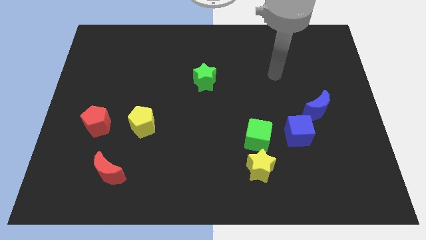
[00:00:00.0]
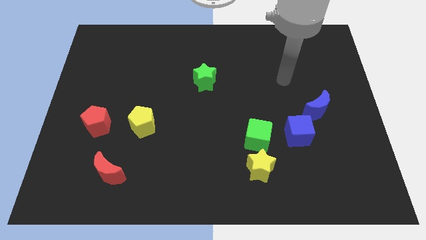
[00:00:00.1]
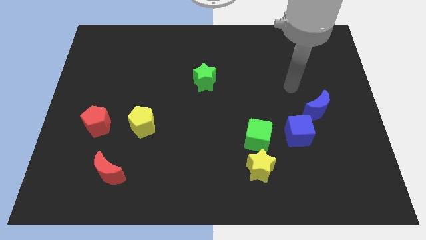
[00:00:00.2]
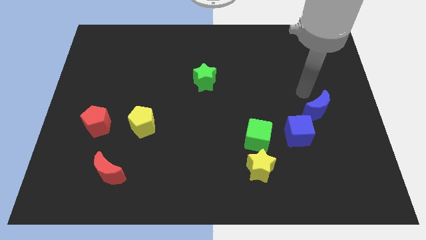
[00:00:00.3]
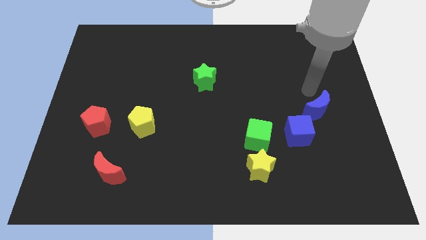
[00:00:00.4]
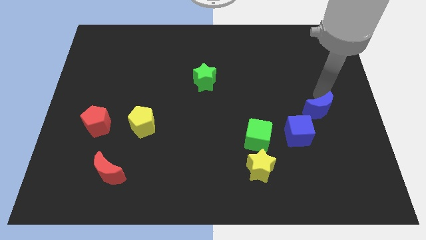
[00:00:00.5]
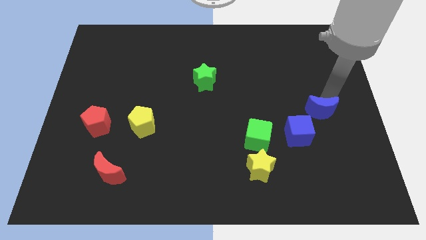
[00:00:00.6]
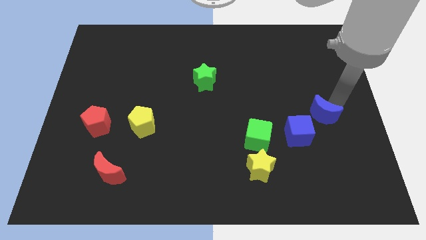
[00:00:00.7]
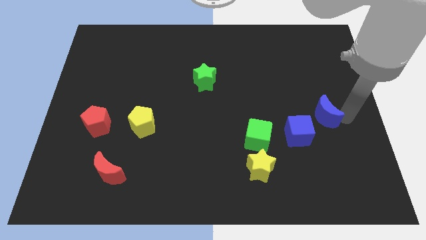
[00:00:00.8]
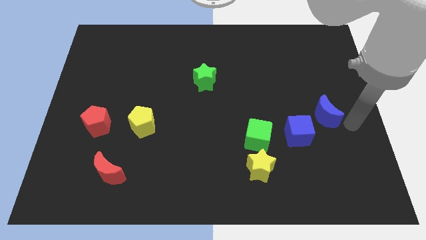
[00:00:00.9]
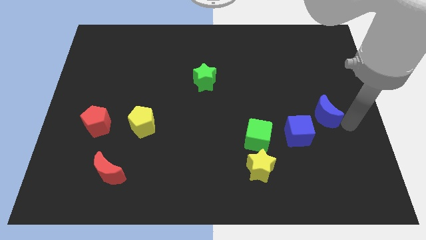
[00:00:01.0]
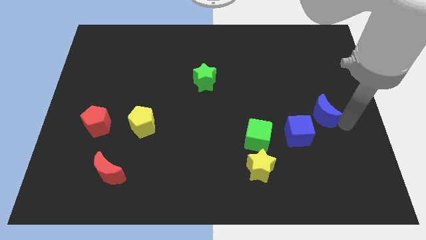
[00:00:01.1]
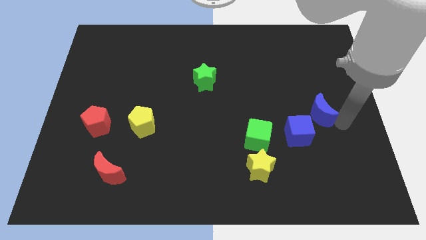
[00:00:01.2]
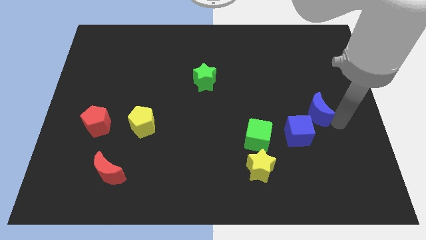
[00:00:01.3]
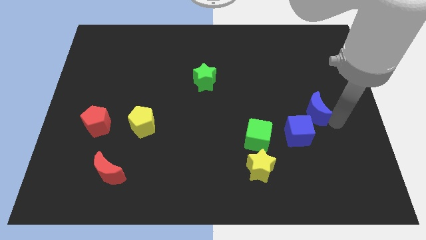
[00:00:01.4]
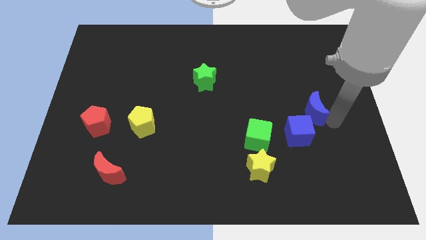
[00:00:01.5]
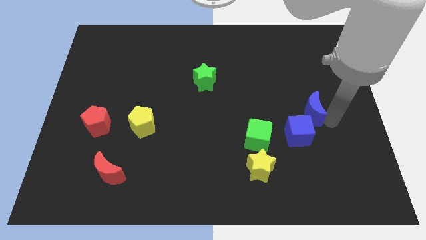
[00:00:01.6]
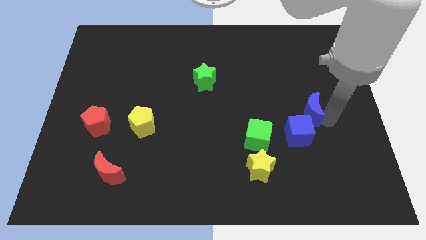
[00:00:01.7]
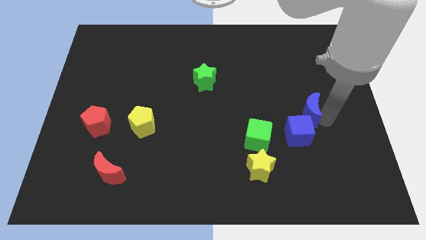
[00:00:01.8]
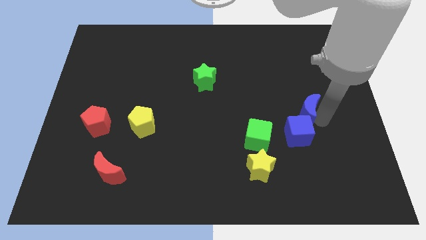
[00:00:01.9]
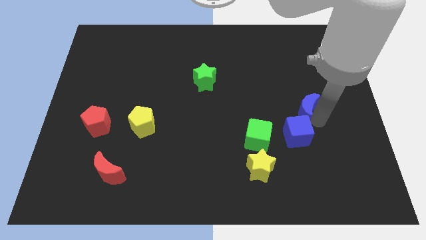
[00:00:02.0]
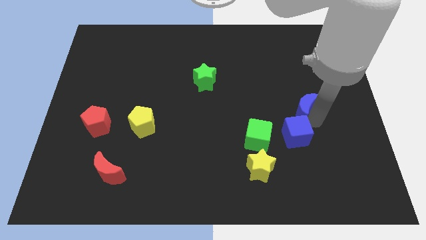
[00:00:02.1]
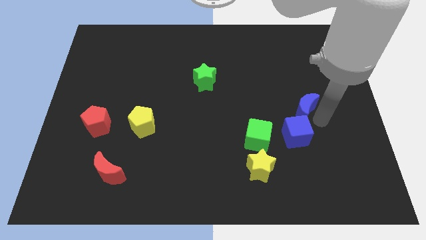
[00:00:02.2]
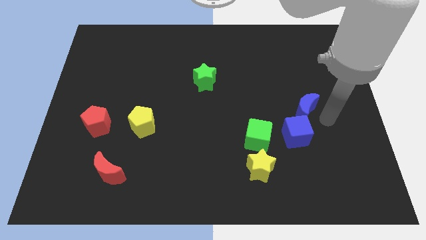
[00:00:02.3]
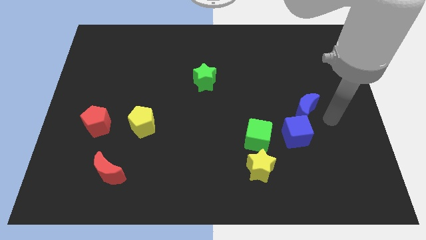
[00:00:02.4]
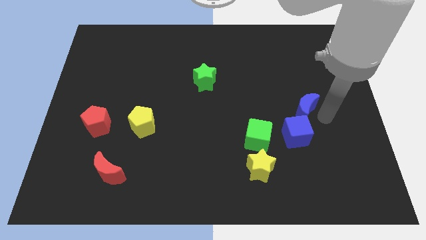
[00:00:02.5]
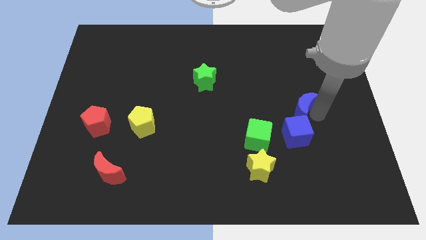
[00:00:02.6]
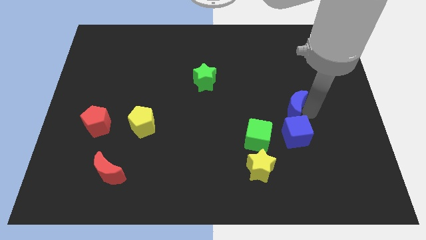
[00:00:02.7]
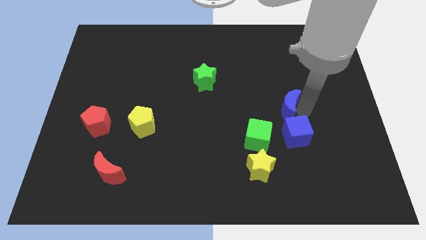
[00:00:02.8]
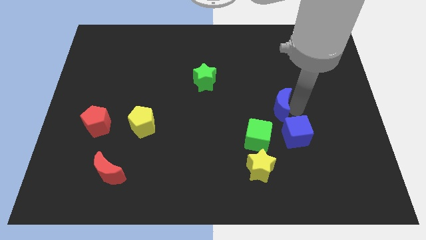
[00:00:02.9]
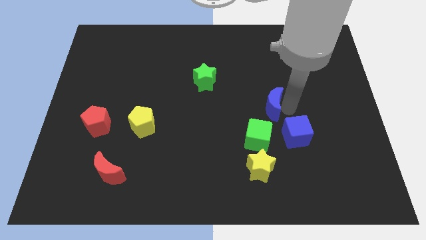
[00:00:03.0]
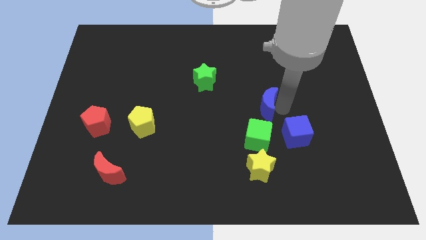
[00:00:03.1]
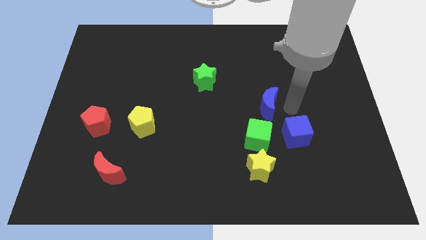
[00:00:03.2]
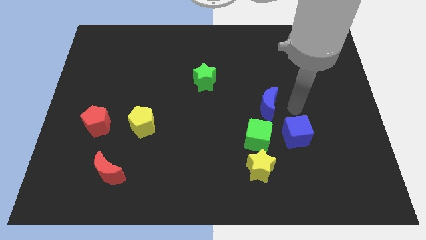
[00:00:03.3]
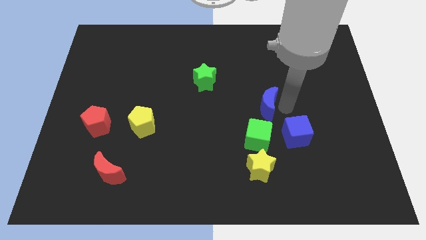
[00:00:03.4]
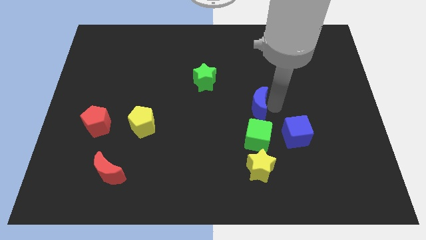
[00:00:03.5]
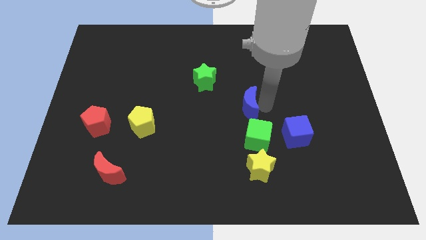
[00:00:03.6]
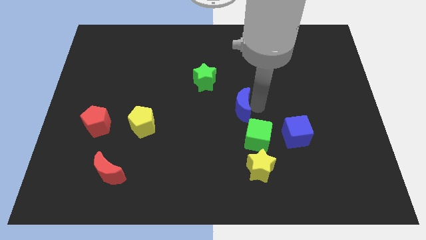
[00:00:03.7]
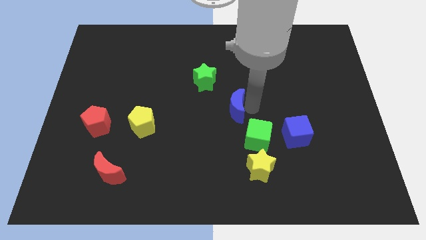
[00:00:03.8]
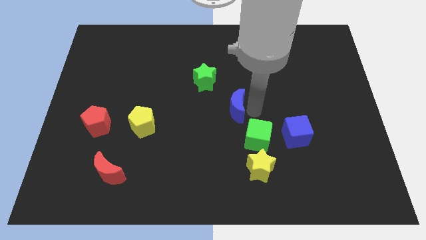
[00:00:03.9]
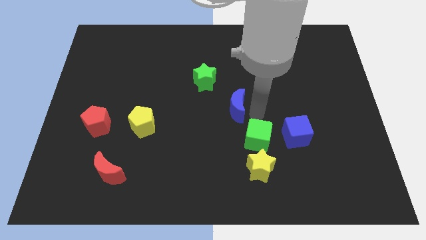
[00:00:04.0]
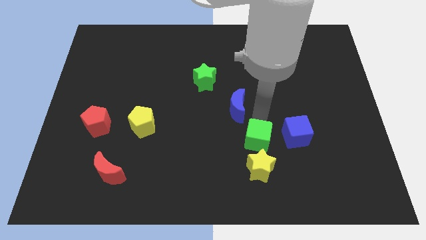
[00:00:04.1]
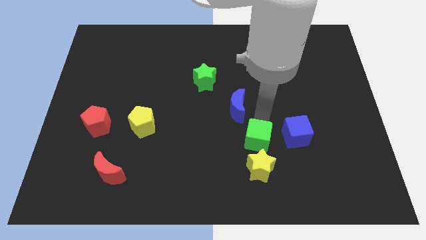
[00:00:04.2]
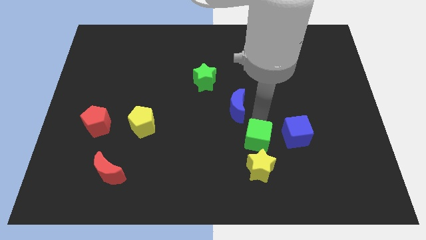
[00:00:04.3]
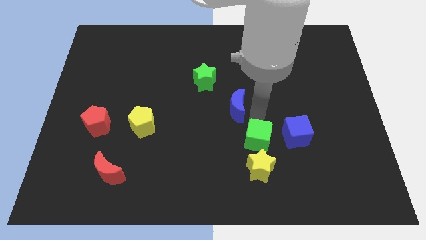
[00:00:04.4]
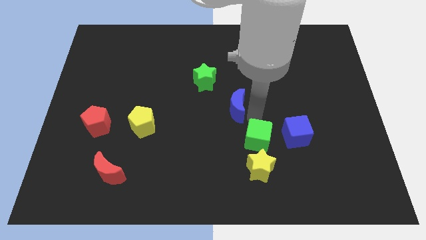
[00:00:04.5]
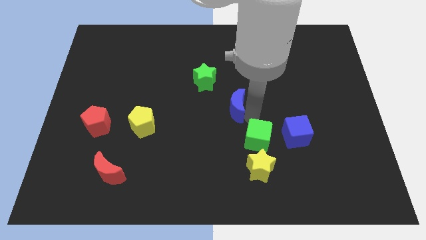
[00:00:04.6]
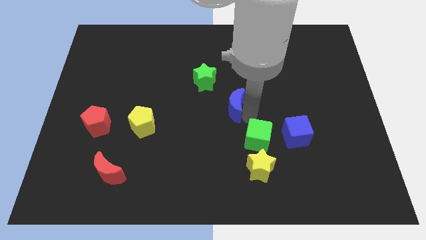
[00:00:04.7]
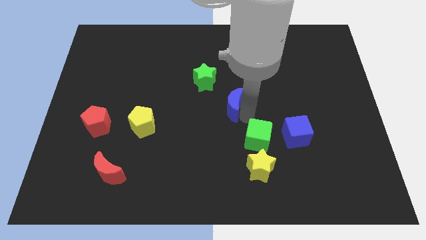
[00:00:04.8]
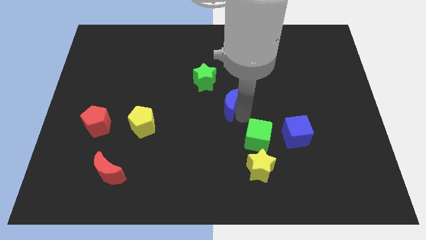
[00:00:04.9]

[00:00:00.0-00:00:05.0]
push the blue moon left

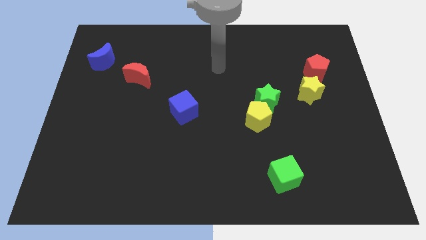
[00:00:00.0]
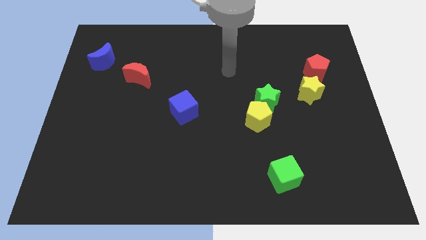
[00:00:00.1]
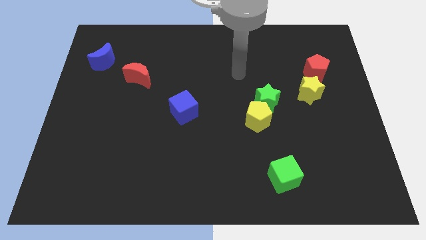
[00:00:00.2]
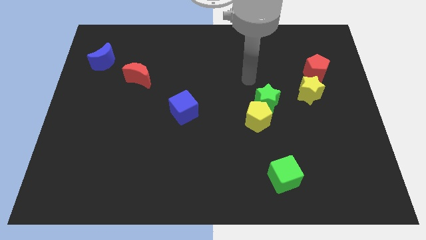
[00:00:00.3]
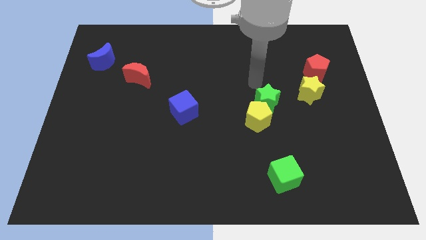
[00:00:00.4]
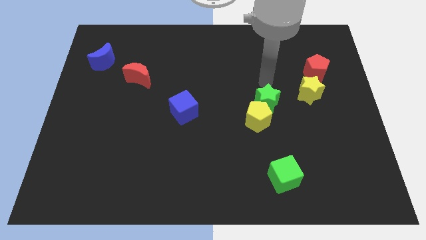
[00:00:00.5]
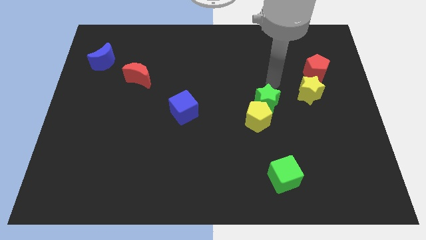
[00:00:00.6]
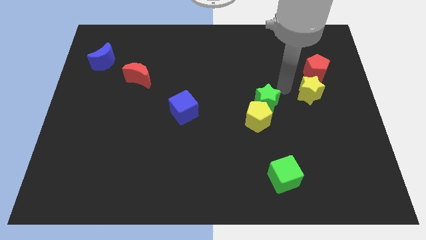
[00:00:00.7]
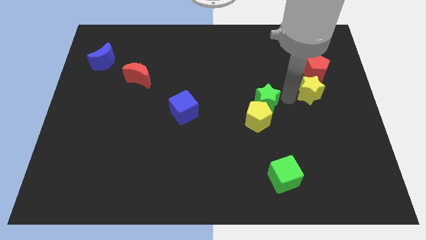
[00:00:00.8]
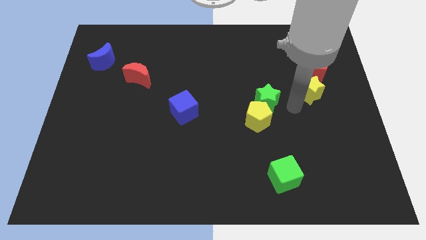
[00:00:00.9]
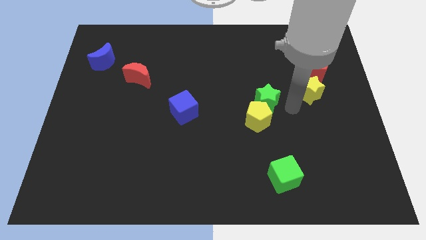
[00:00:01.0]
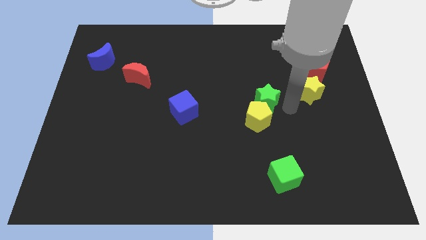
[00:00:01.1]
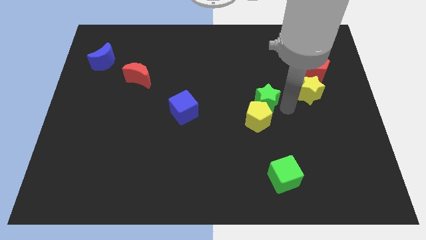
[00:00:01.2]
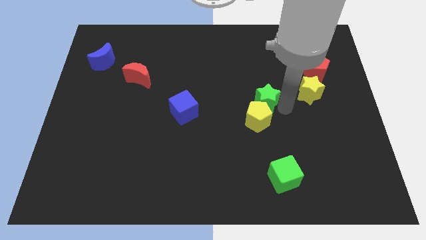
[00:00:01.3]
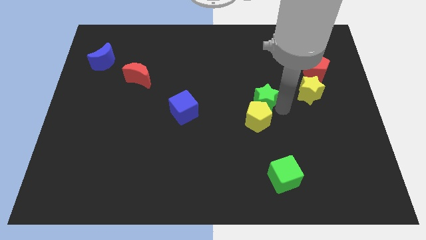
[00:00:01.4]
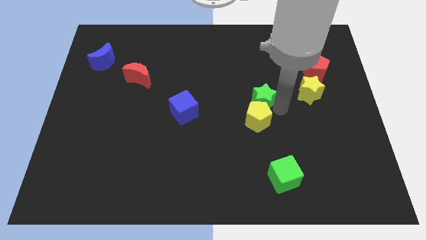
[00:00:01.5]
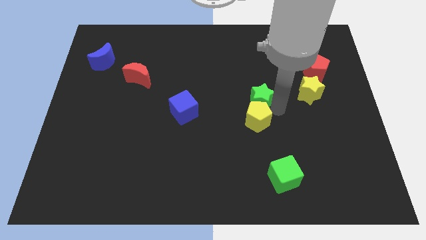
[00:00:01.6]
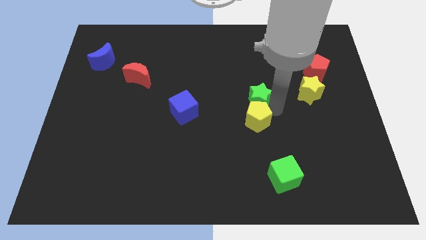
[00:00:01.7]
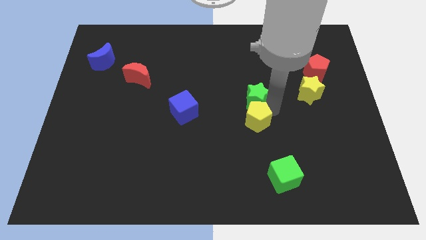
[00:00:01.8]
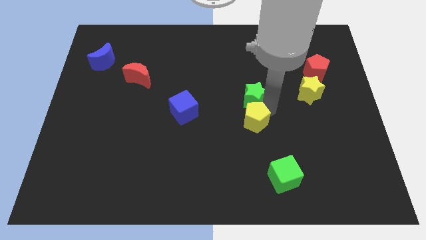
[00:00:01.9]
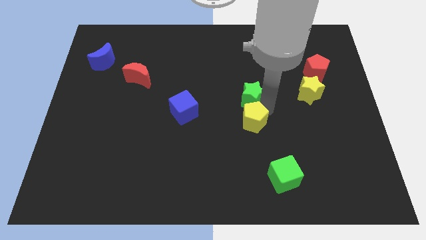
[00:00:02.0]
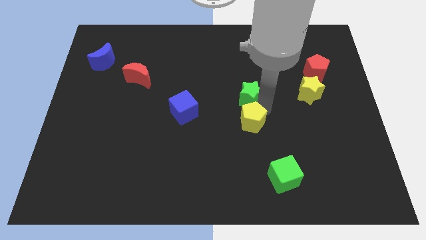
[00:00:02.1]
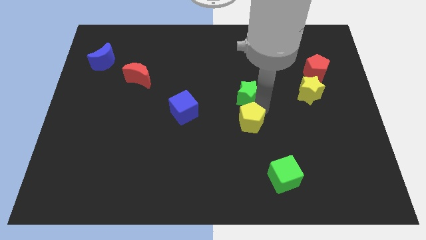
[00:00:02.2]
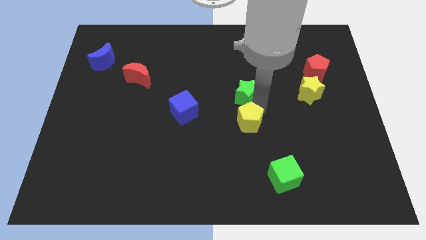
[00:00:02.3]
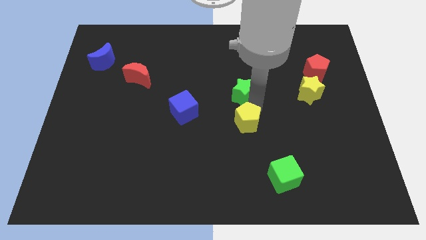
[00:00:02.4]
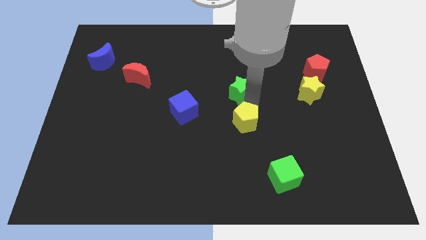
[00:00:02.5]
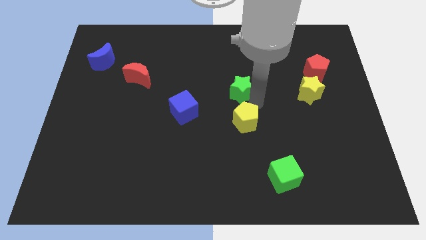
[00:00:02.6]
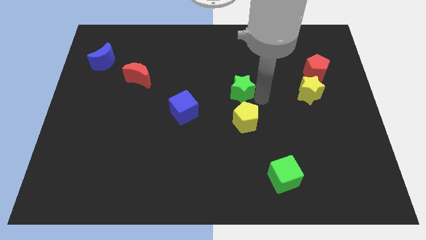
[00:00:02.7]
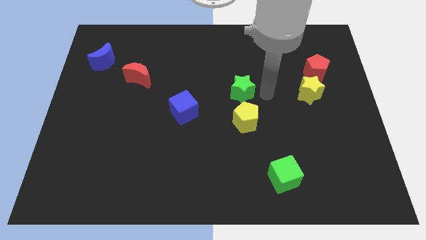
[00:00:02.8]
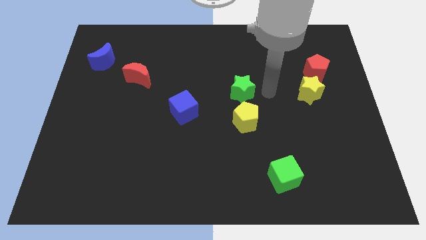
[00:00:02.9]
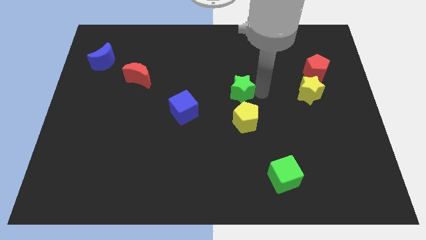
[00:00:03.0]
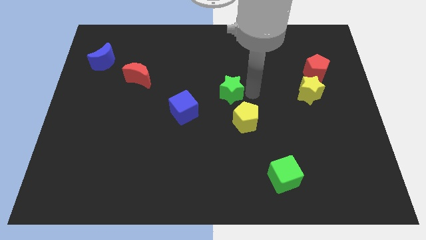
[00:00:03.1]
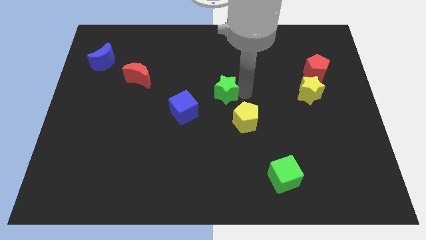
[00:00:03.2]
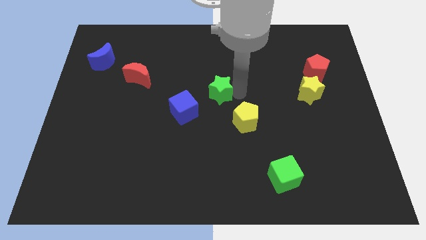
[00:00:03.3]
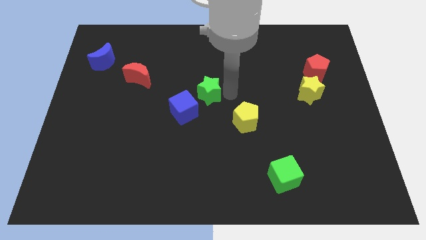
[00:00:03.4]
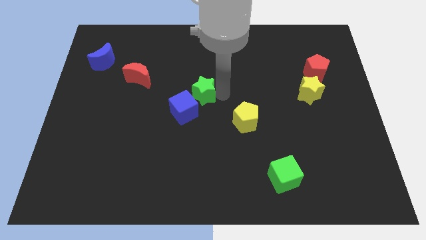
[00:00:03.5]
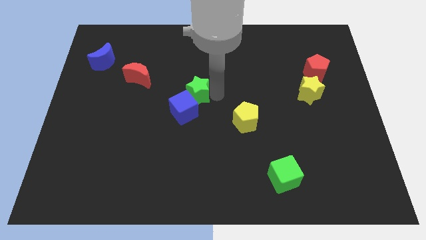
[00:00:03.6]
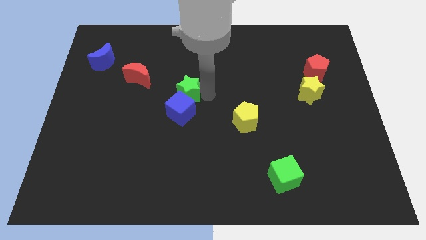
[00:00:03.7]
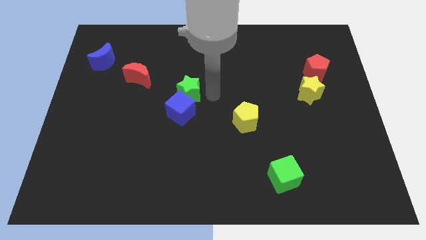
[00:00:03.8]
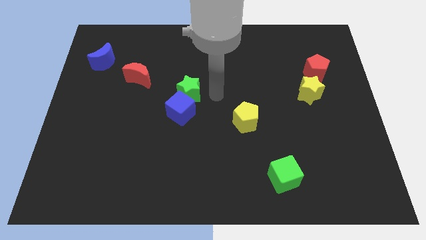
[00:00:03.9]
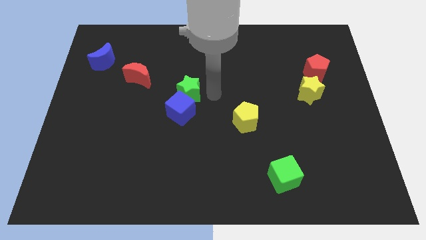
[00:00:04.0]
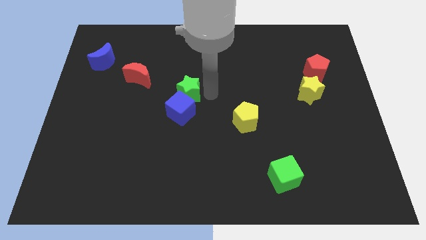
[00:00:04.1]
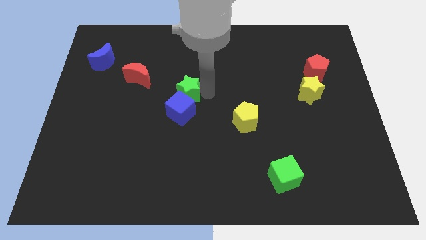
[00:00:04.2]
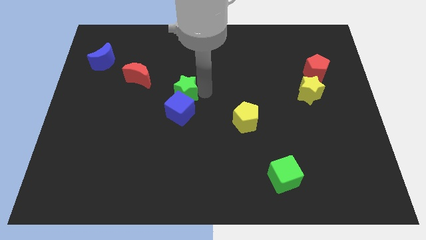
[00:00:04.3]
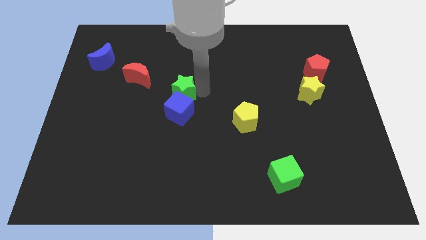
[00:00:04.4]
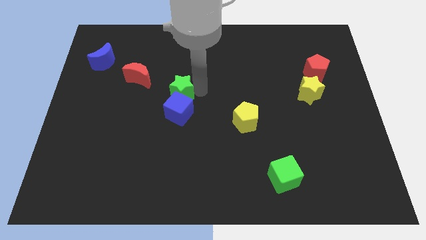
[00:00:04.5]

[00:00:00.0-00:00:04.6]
slide the green star left
